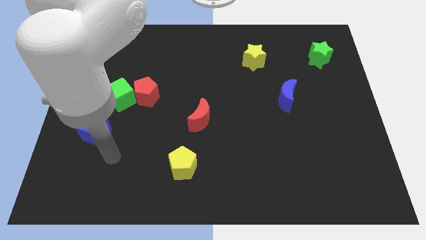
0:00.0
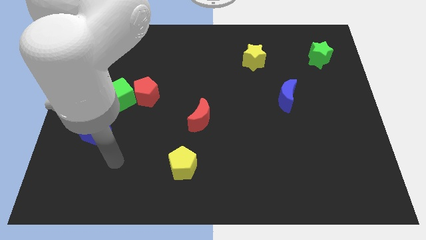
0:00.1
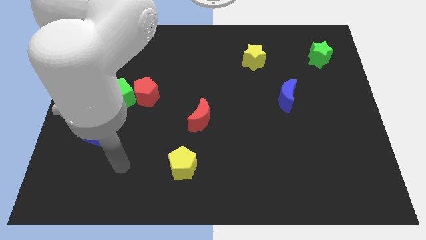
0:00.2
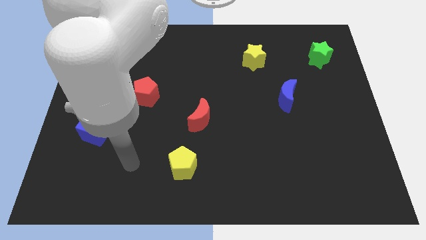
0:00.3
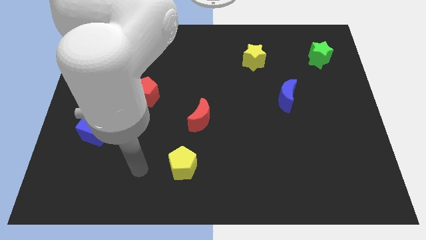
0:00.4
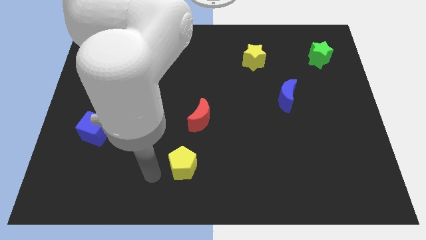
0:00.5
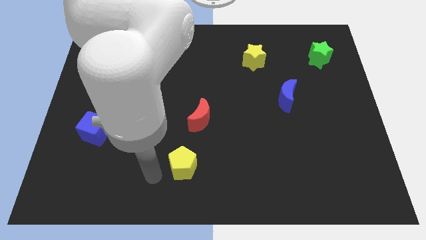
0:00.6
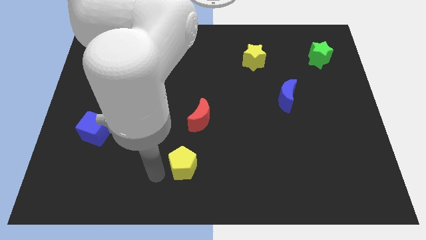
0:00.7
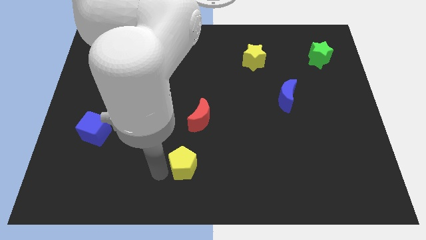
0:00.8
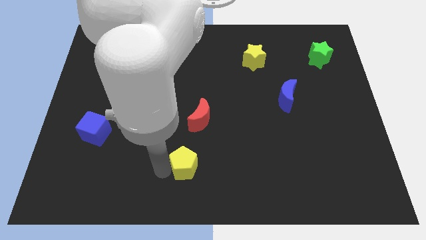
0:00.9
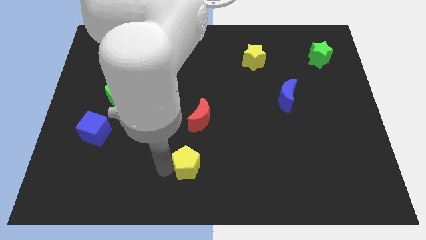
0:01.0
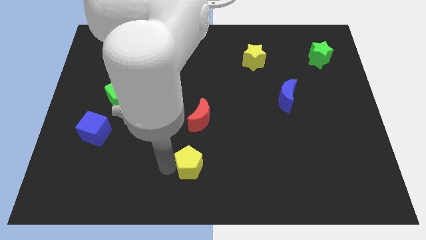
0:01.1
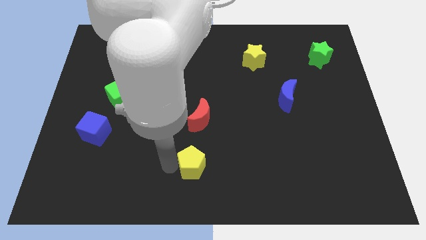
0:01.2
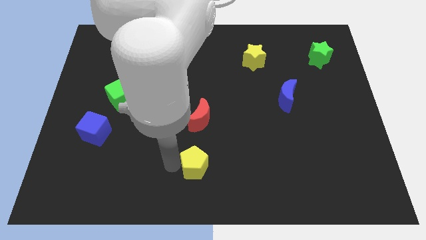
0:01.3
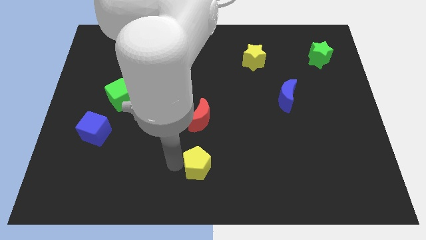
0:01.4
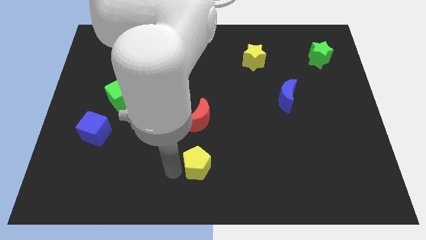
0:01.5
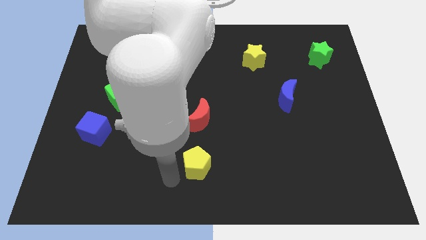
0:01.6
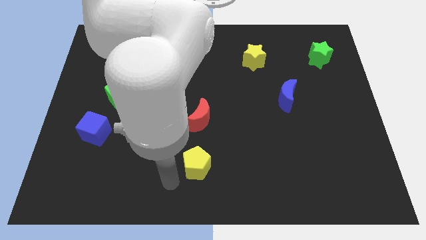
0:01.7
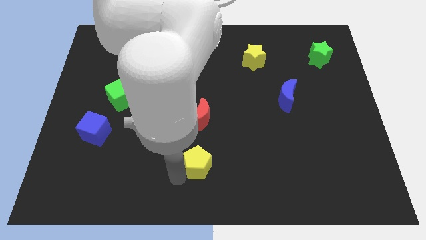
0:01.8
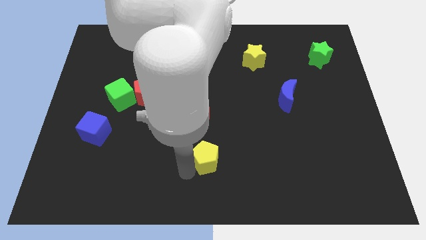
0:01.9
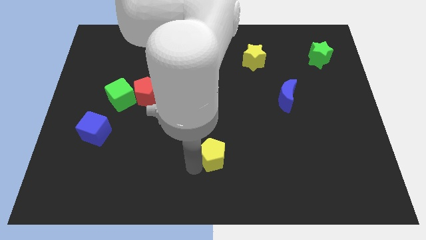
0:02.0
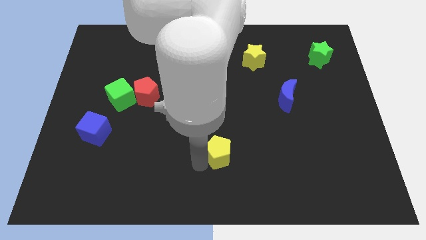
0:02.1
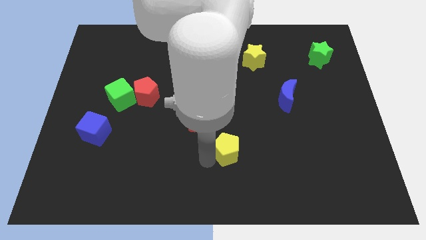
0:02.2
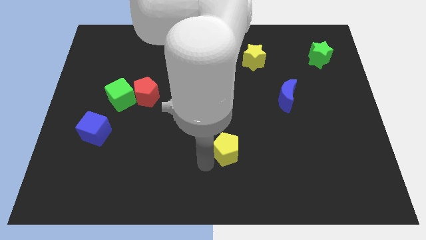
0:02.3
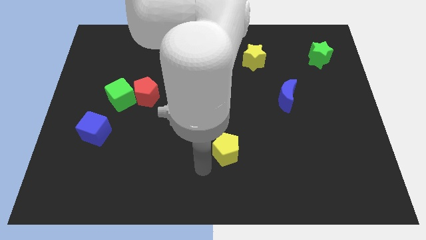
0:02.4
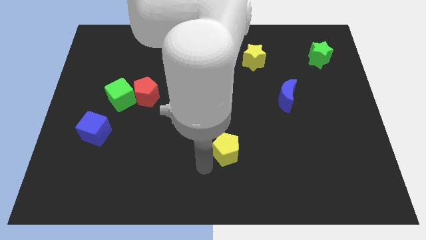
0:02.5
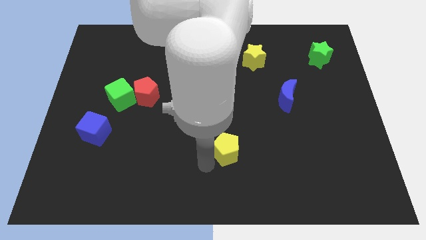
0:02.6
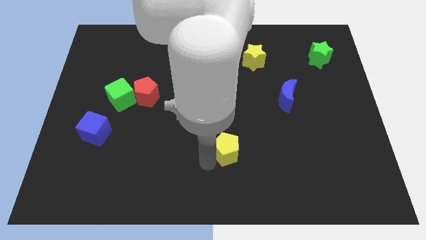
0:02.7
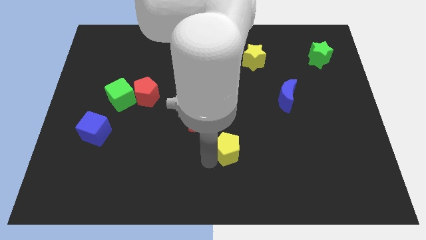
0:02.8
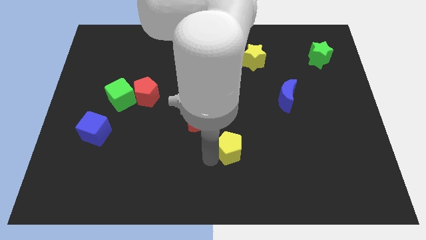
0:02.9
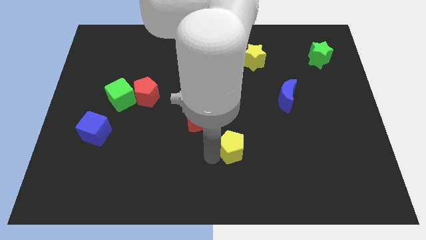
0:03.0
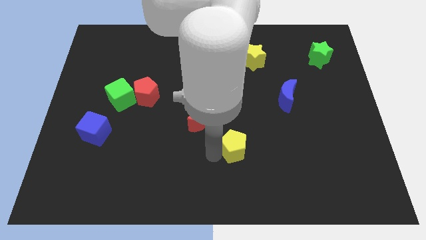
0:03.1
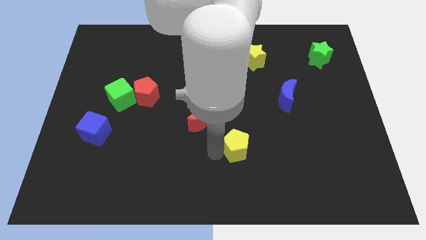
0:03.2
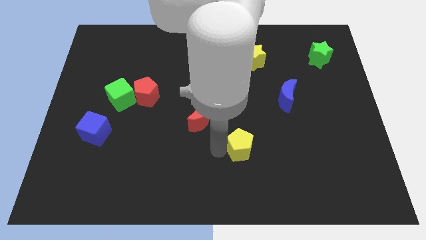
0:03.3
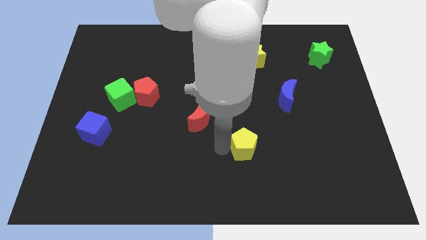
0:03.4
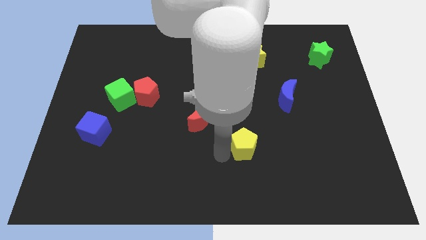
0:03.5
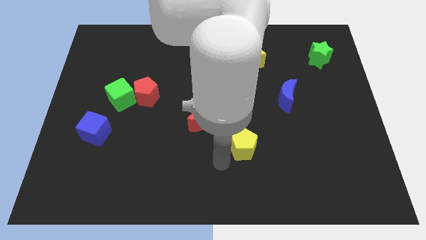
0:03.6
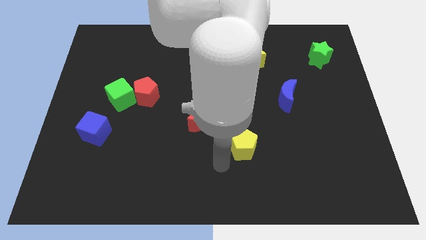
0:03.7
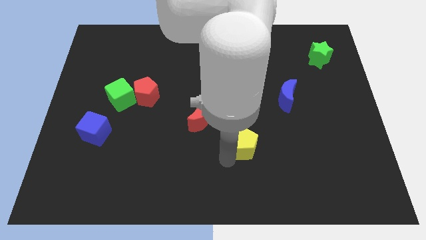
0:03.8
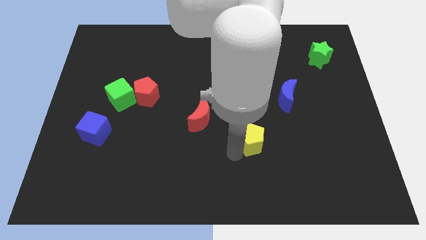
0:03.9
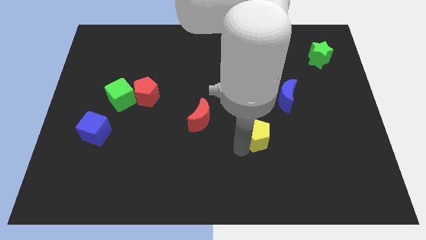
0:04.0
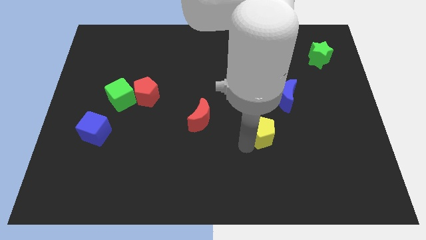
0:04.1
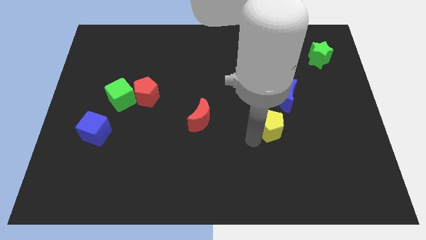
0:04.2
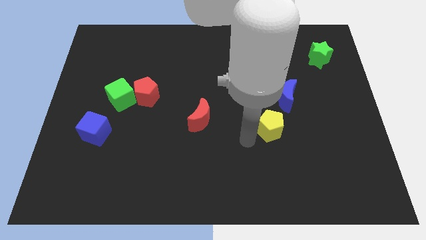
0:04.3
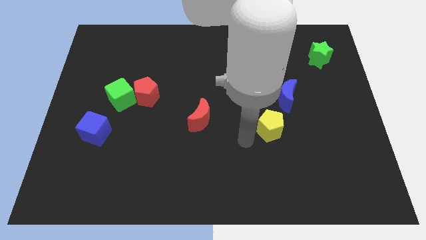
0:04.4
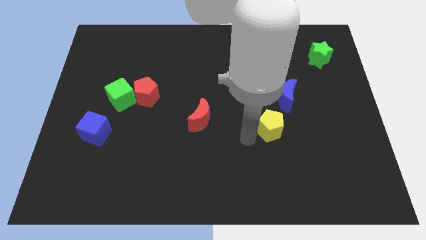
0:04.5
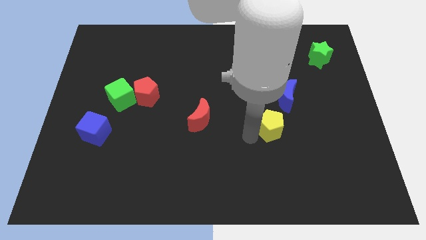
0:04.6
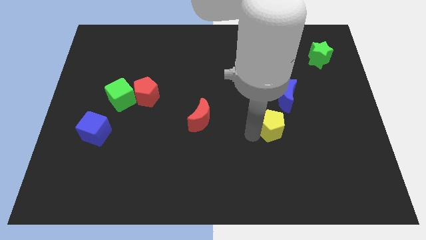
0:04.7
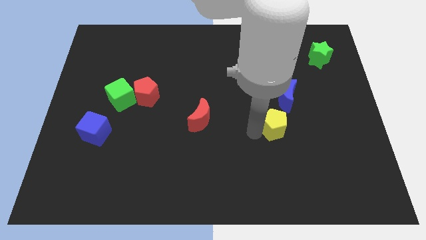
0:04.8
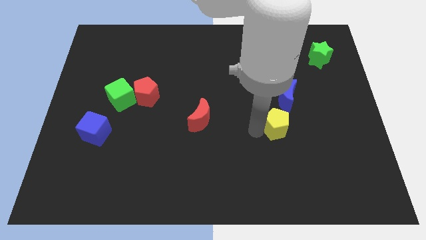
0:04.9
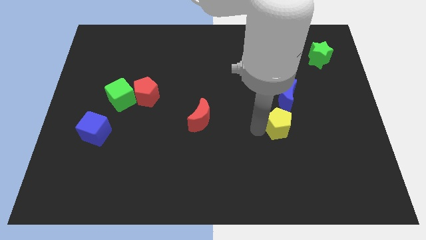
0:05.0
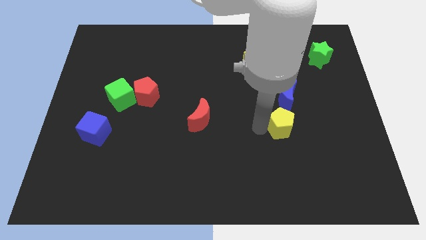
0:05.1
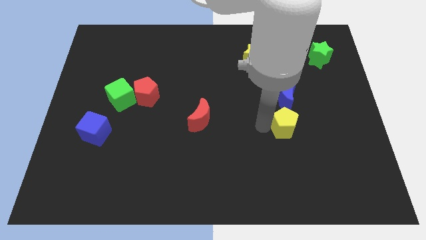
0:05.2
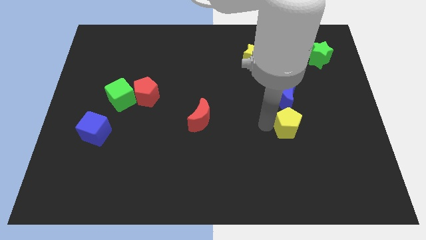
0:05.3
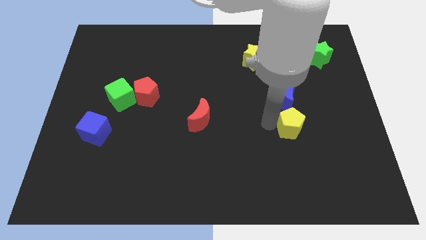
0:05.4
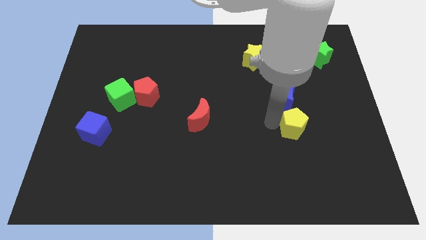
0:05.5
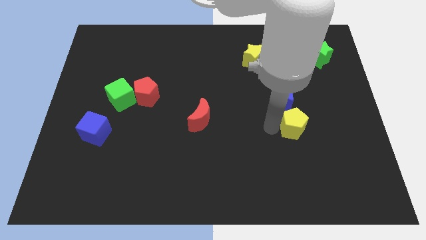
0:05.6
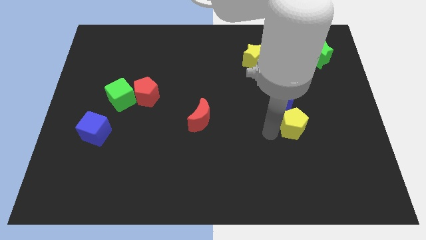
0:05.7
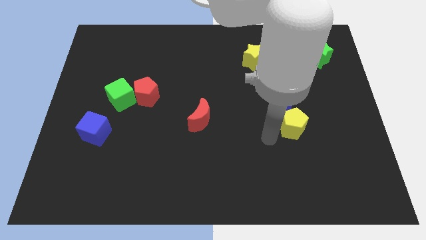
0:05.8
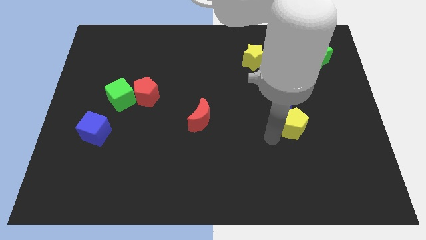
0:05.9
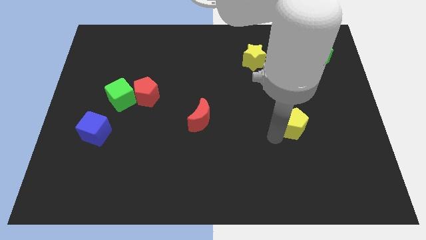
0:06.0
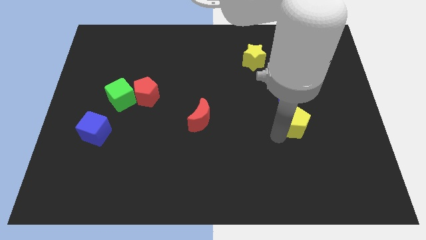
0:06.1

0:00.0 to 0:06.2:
push the yellow pentagon diagonally down and to the right of the blue moon
